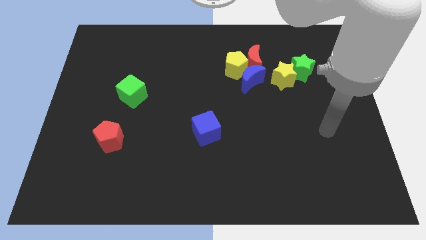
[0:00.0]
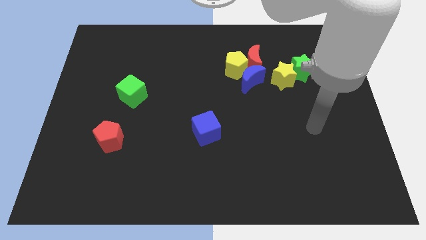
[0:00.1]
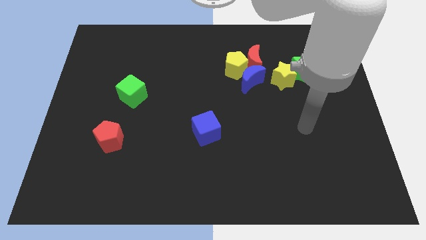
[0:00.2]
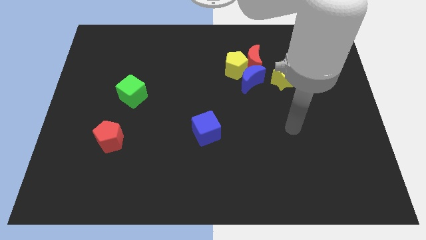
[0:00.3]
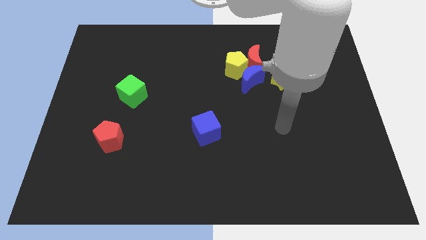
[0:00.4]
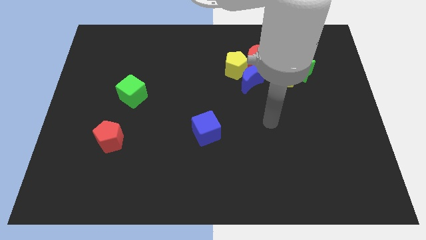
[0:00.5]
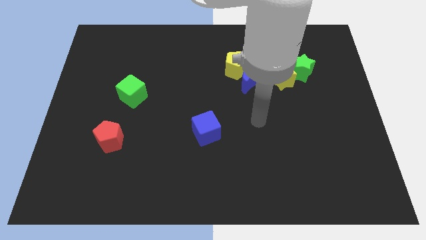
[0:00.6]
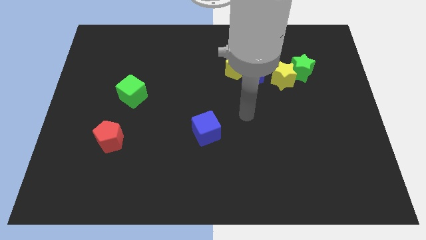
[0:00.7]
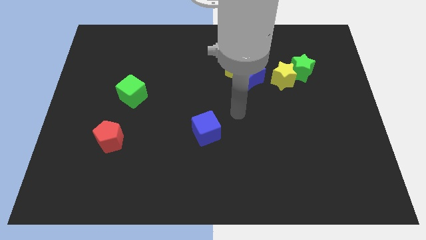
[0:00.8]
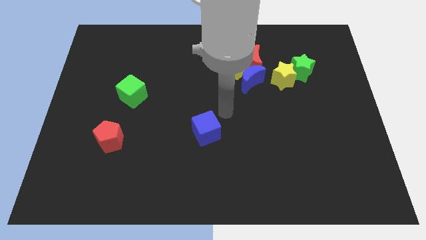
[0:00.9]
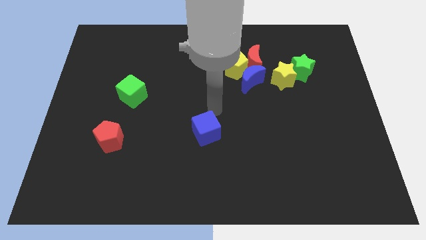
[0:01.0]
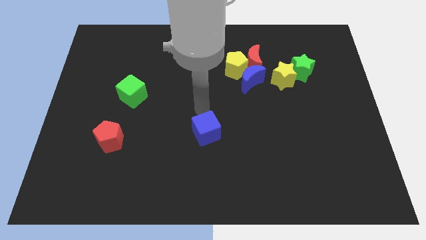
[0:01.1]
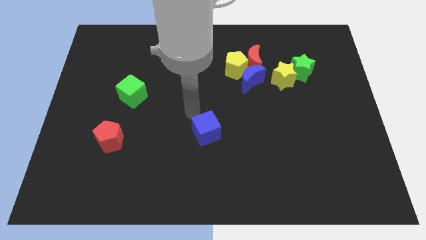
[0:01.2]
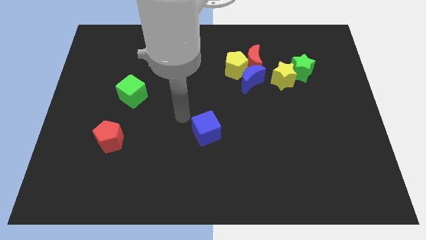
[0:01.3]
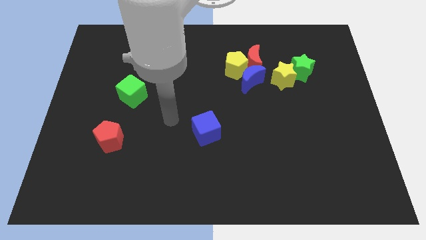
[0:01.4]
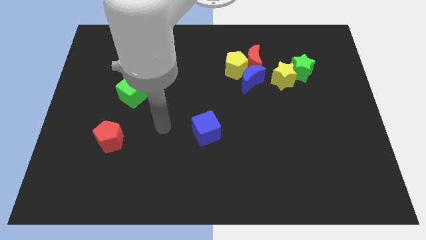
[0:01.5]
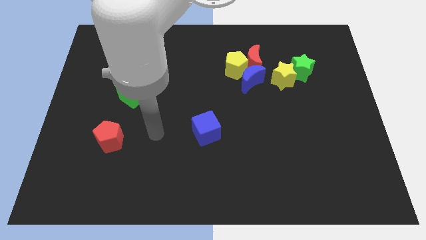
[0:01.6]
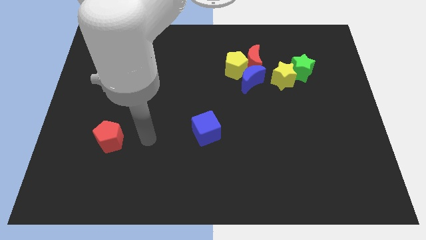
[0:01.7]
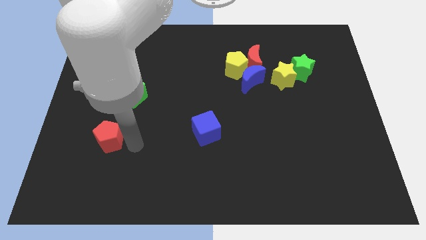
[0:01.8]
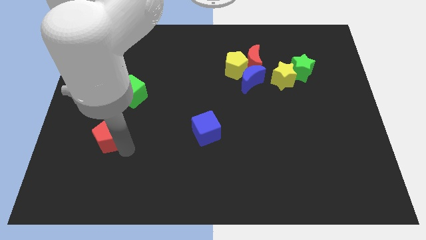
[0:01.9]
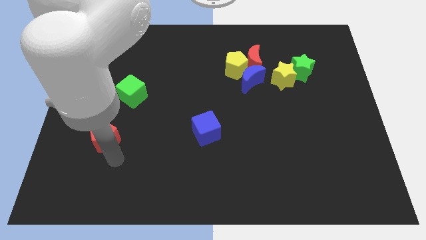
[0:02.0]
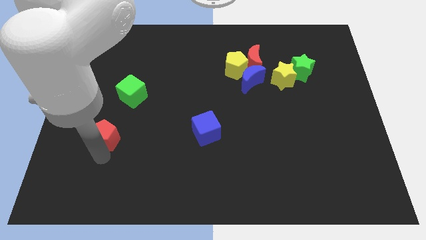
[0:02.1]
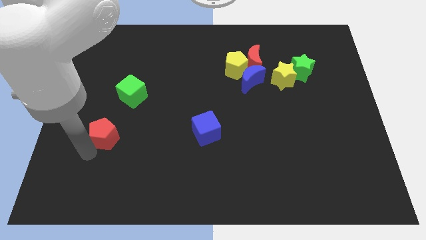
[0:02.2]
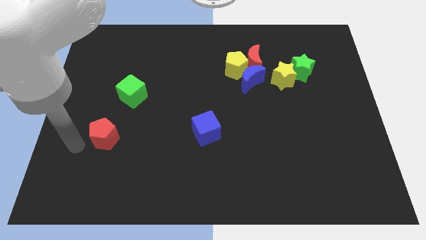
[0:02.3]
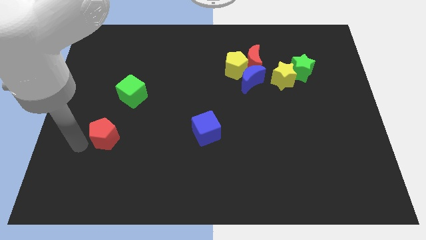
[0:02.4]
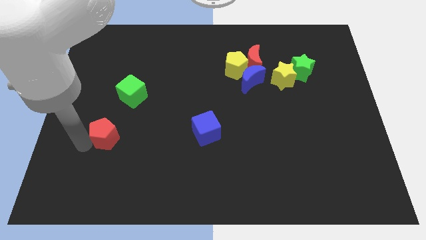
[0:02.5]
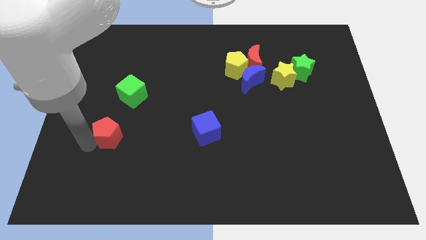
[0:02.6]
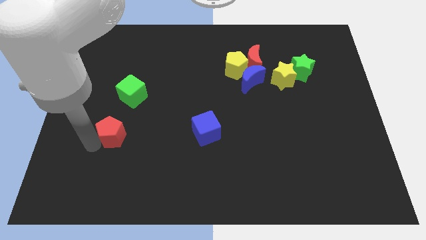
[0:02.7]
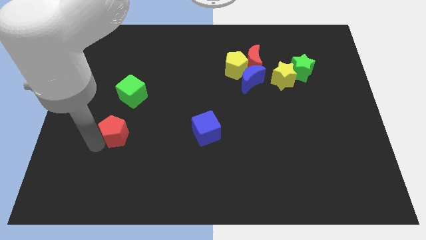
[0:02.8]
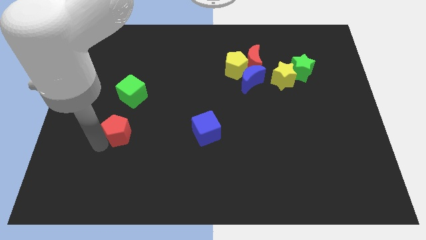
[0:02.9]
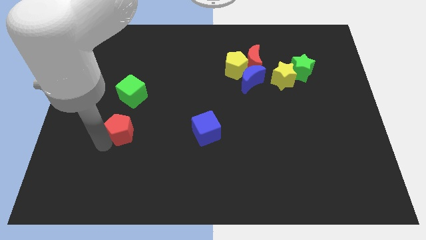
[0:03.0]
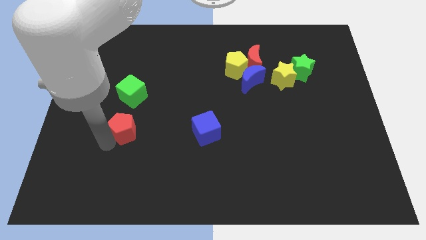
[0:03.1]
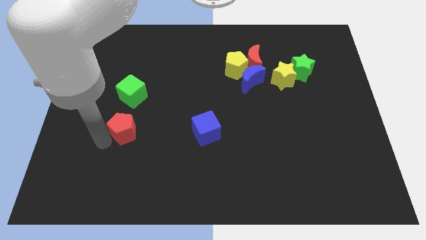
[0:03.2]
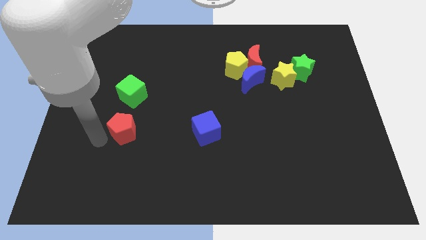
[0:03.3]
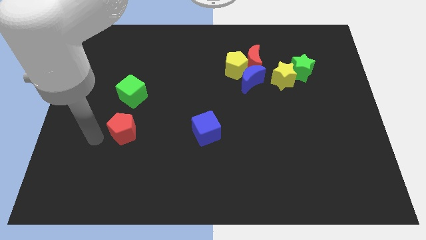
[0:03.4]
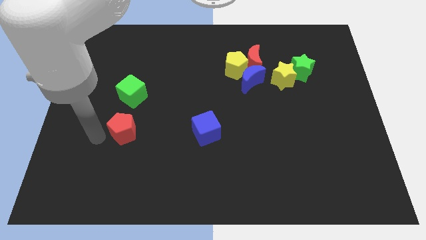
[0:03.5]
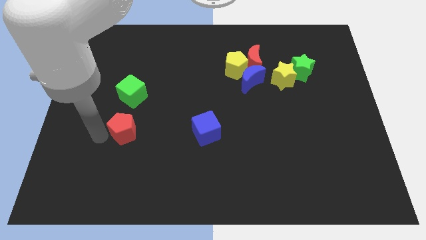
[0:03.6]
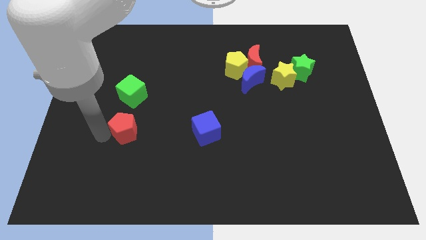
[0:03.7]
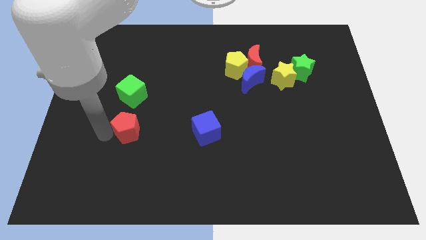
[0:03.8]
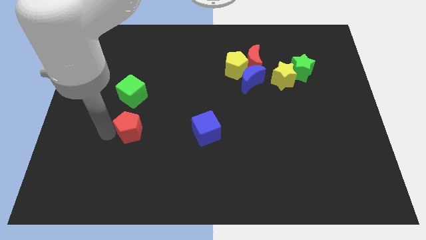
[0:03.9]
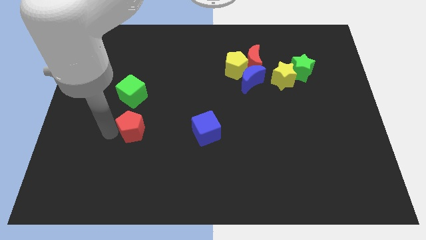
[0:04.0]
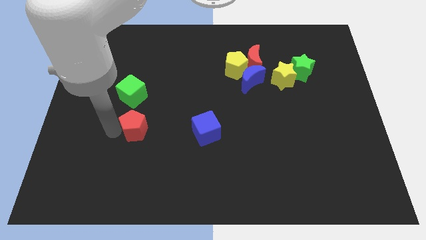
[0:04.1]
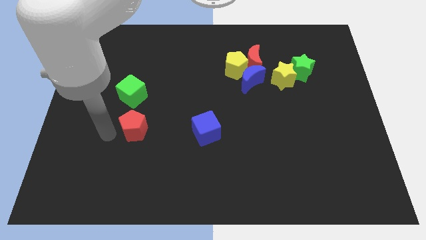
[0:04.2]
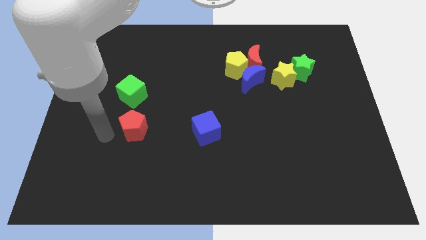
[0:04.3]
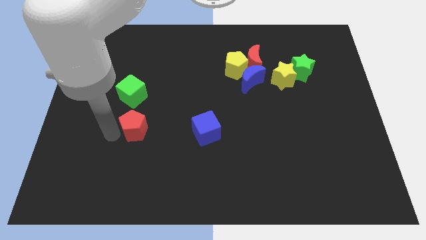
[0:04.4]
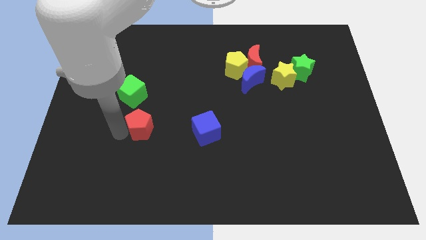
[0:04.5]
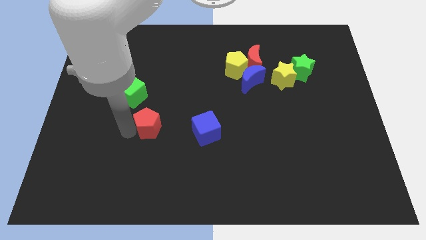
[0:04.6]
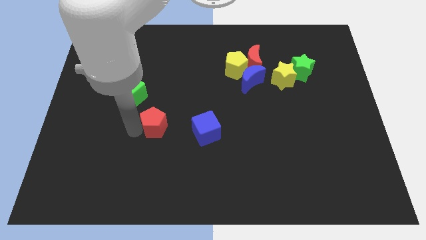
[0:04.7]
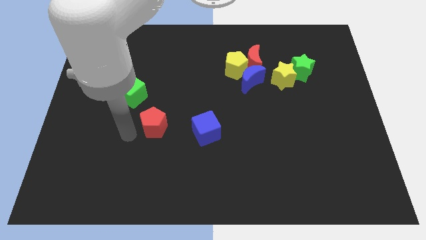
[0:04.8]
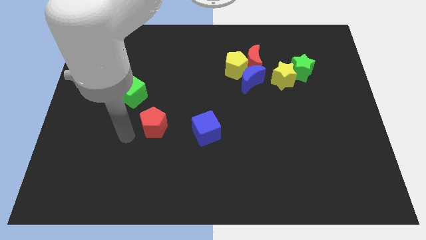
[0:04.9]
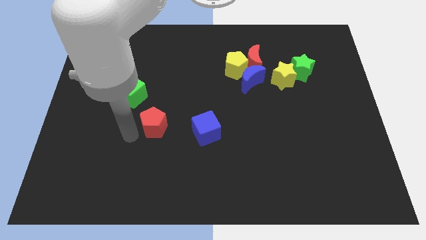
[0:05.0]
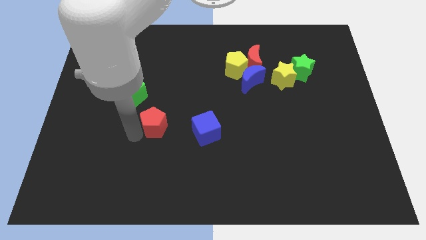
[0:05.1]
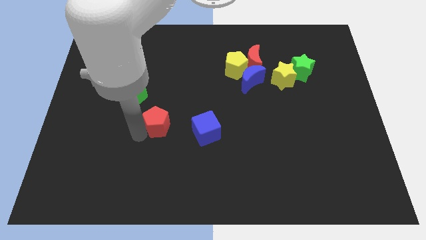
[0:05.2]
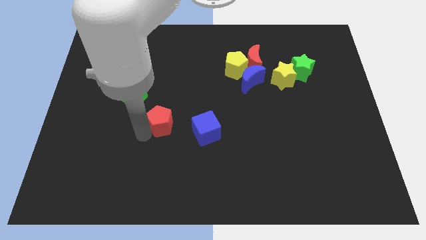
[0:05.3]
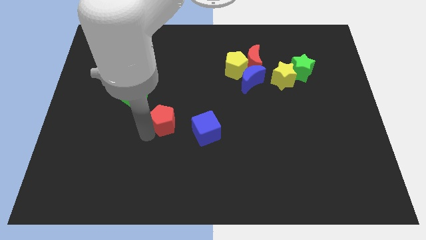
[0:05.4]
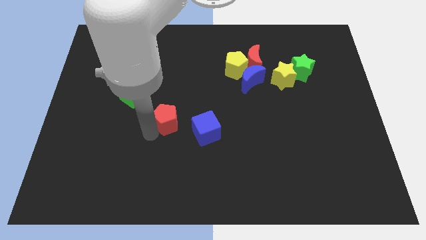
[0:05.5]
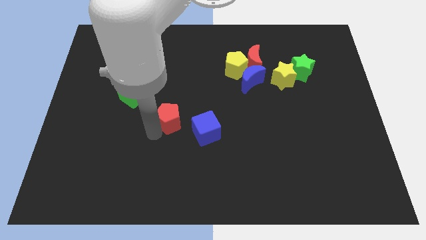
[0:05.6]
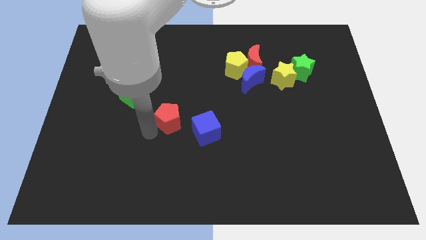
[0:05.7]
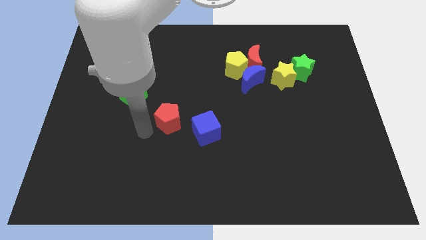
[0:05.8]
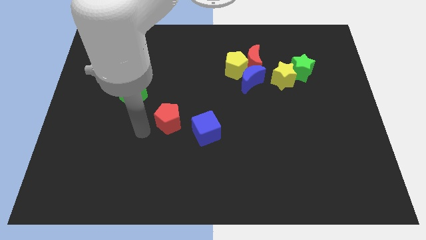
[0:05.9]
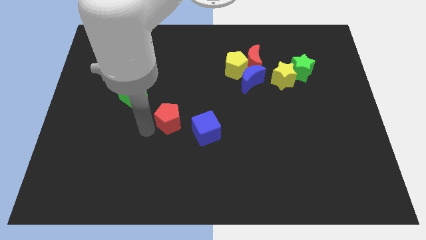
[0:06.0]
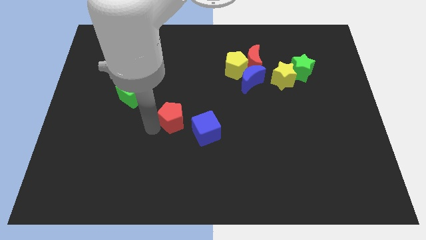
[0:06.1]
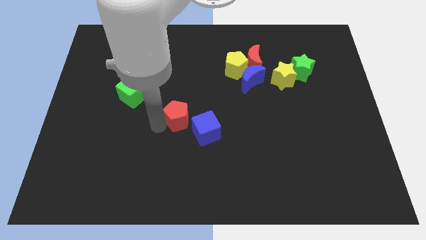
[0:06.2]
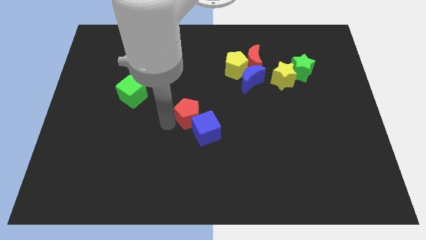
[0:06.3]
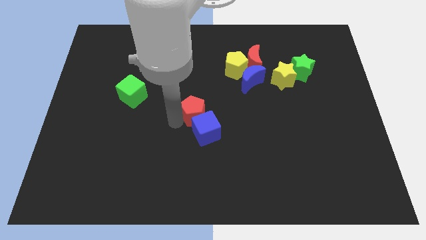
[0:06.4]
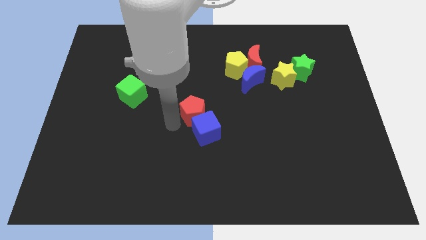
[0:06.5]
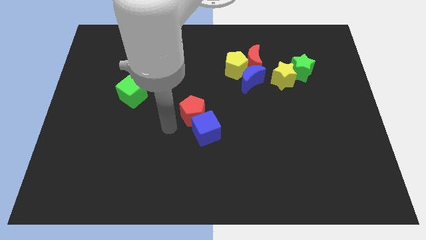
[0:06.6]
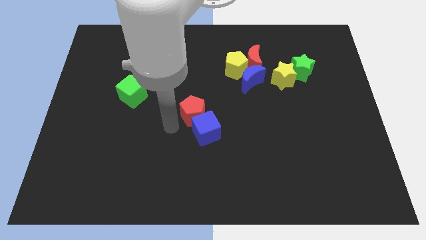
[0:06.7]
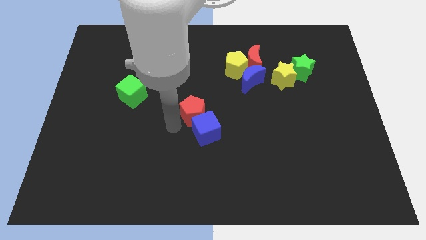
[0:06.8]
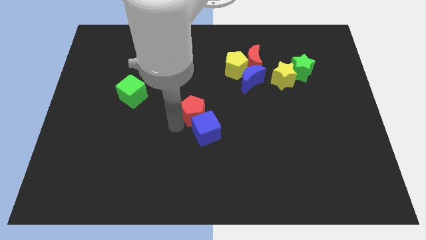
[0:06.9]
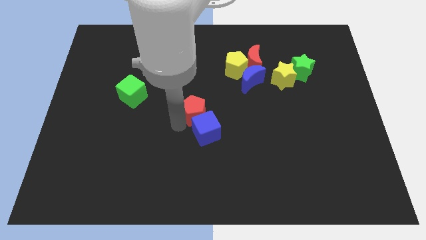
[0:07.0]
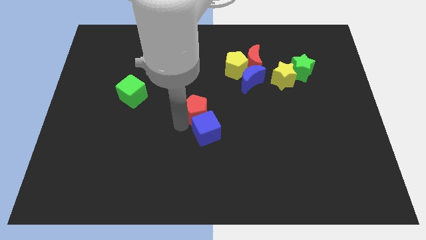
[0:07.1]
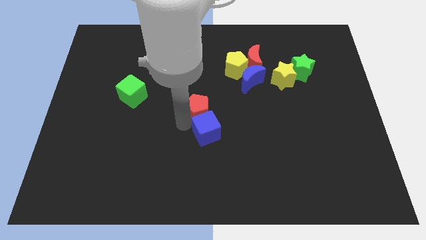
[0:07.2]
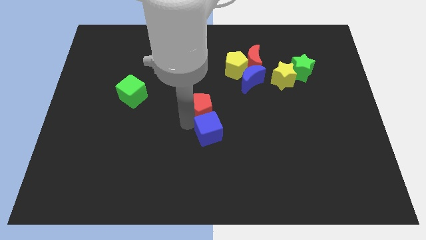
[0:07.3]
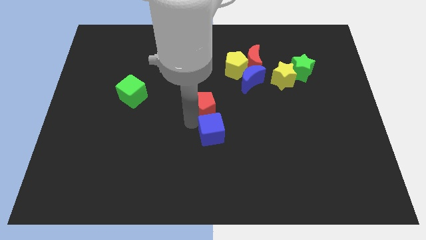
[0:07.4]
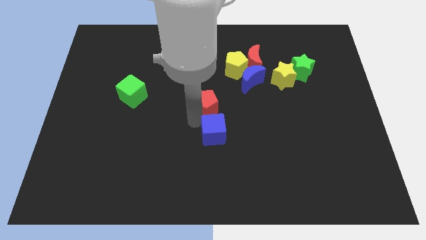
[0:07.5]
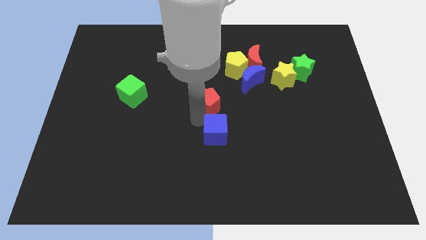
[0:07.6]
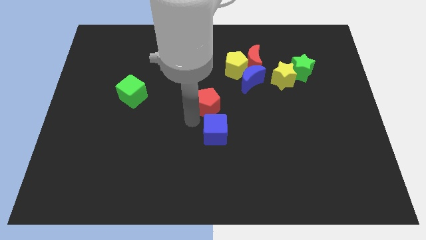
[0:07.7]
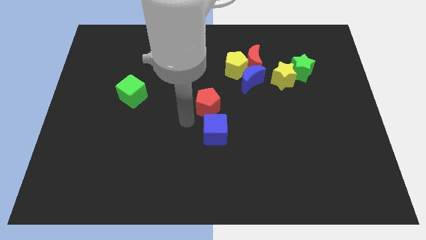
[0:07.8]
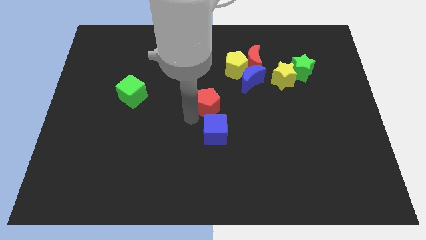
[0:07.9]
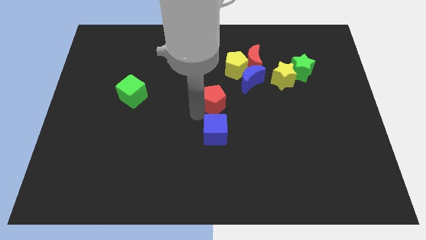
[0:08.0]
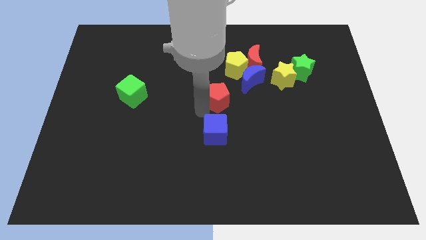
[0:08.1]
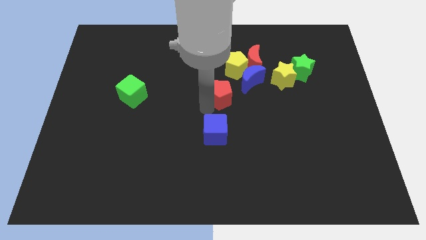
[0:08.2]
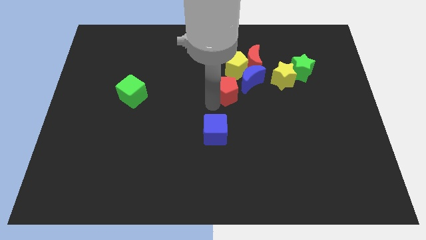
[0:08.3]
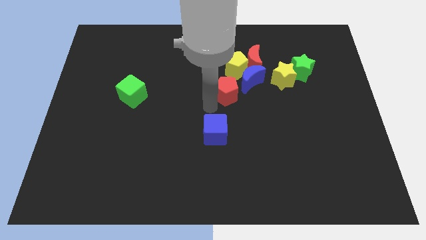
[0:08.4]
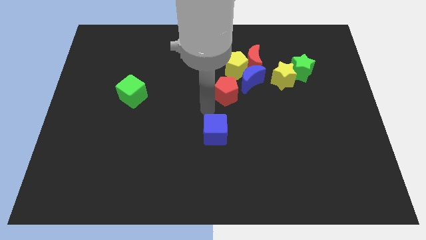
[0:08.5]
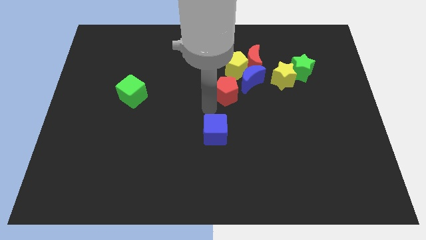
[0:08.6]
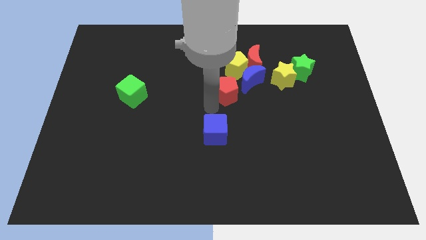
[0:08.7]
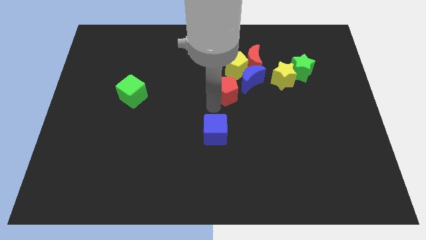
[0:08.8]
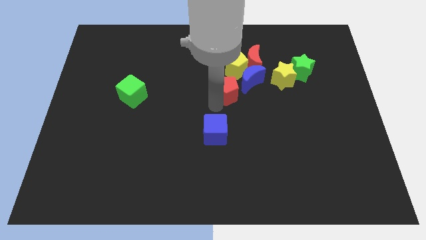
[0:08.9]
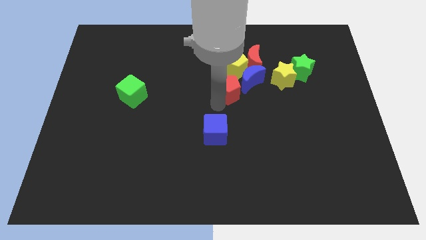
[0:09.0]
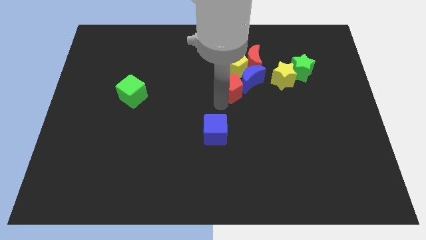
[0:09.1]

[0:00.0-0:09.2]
put the red pentagon close to the blue moon
